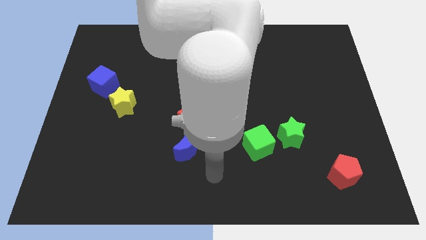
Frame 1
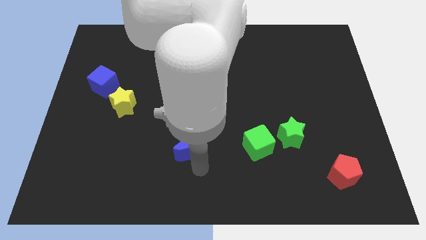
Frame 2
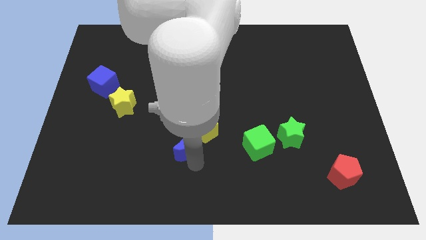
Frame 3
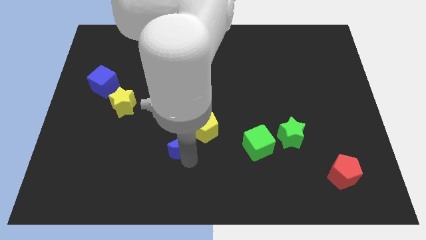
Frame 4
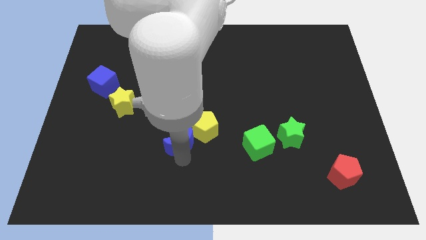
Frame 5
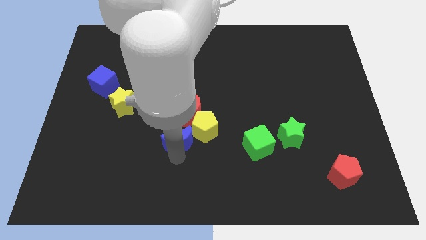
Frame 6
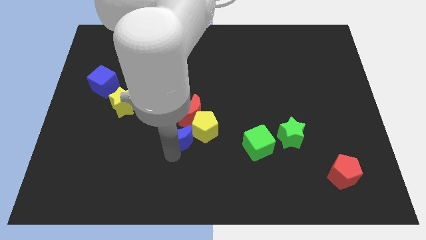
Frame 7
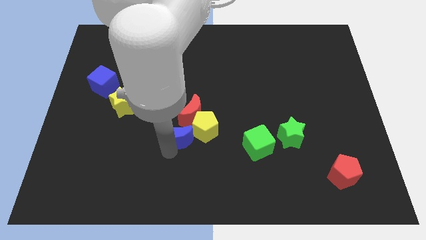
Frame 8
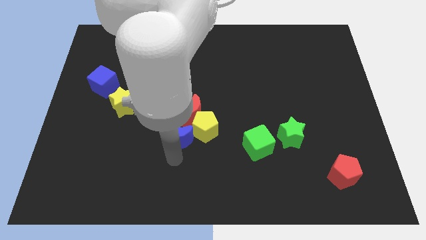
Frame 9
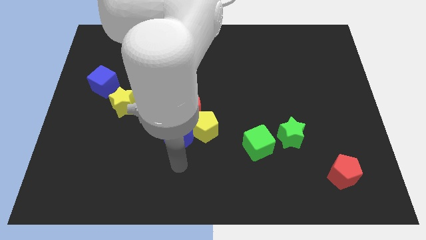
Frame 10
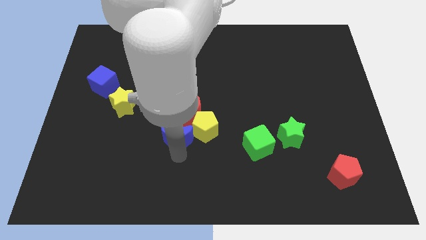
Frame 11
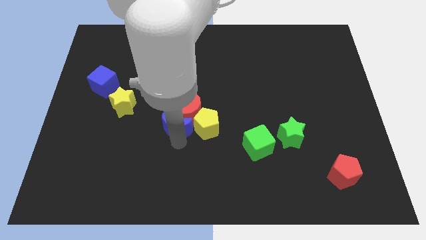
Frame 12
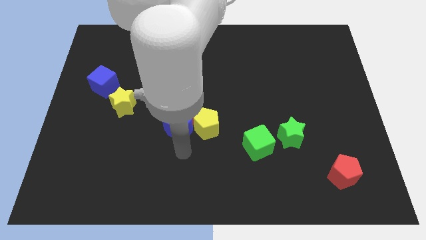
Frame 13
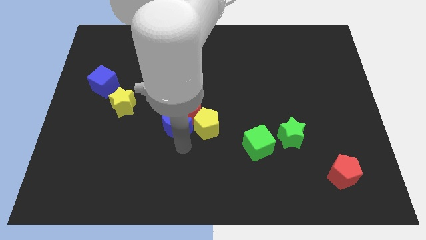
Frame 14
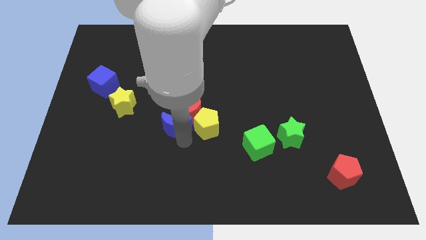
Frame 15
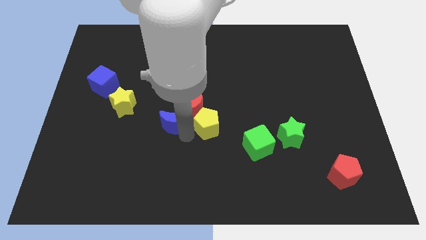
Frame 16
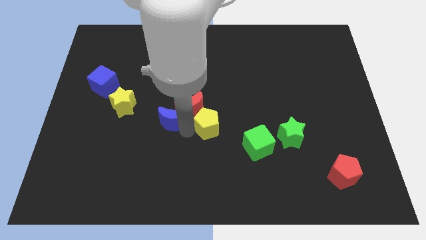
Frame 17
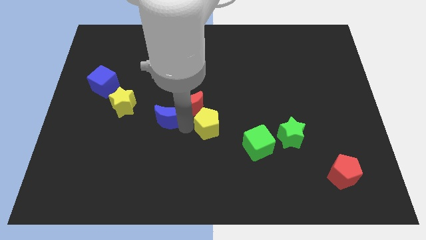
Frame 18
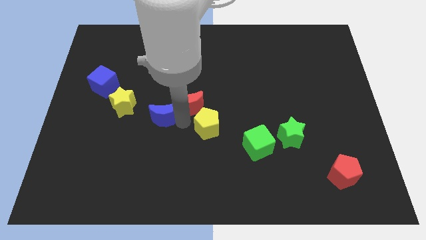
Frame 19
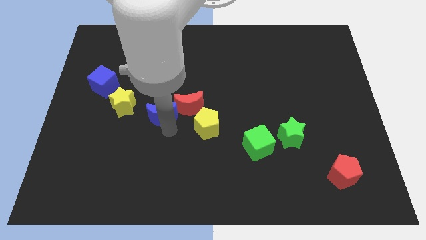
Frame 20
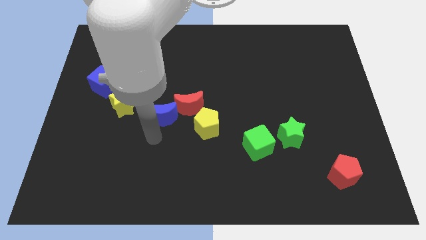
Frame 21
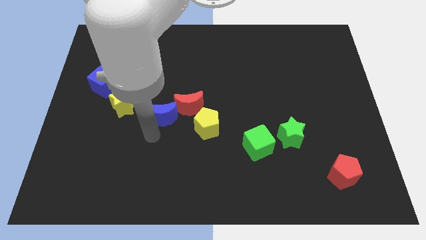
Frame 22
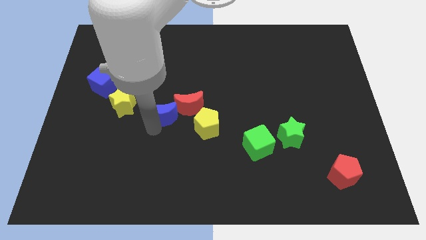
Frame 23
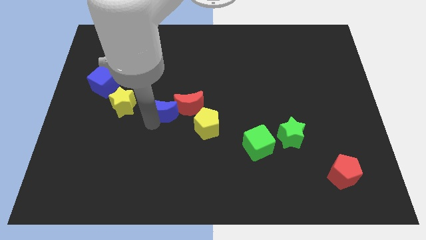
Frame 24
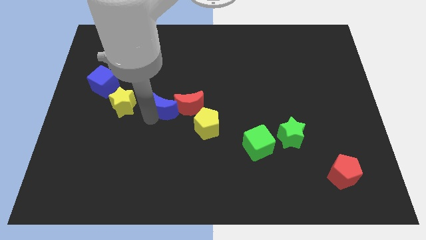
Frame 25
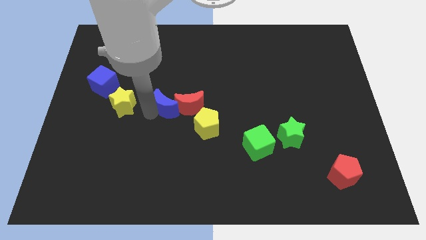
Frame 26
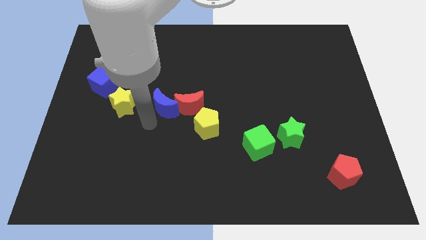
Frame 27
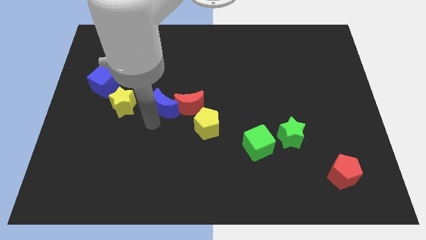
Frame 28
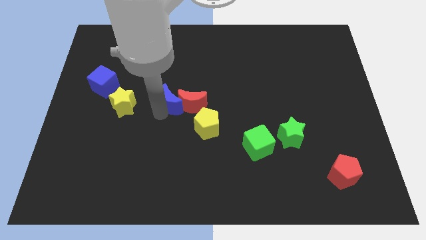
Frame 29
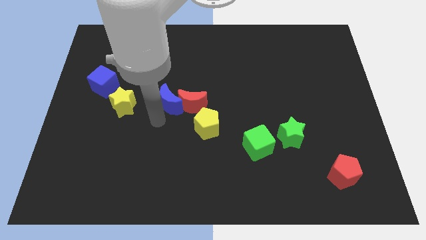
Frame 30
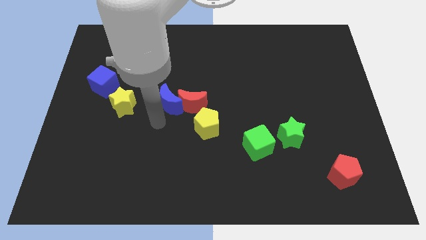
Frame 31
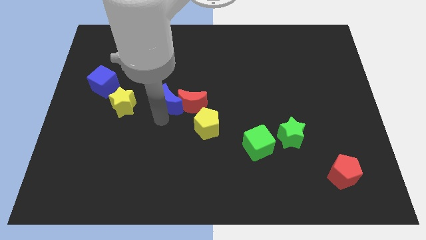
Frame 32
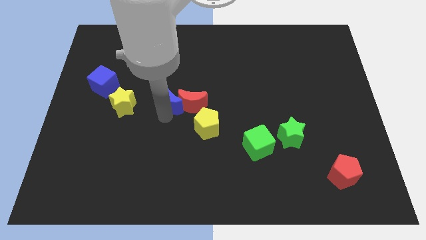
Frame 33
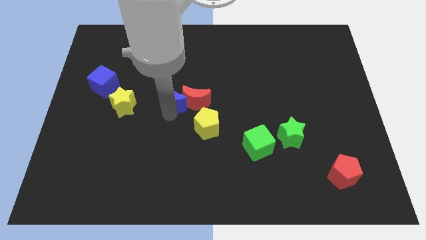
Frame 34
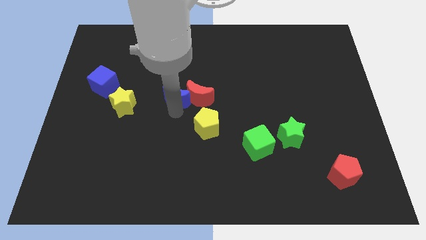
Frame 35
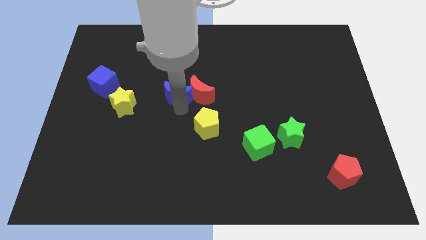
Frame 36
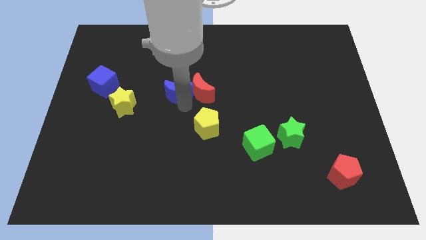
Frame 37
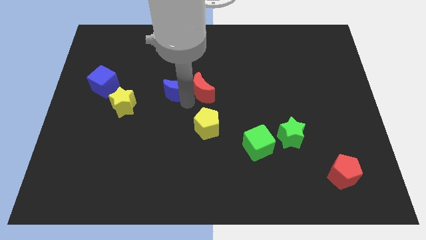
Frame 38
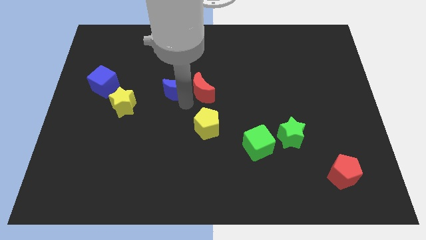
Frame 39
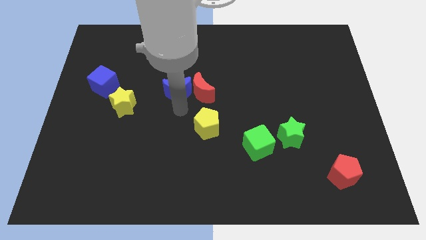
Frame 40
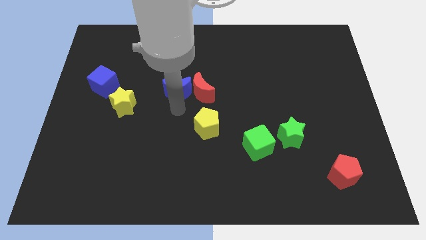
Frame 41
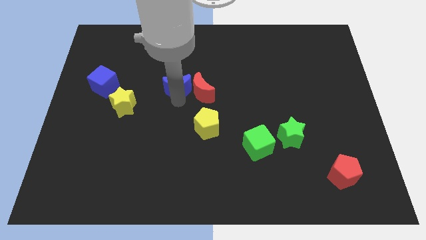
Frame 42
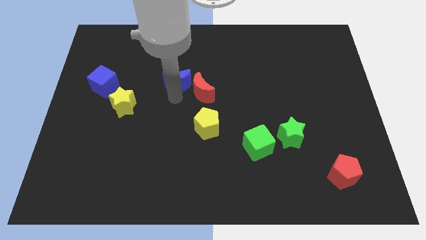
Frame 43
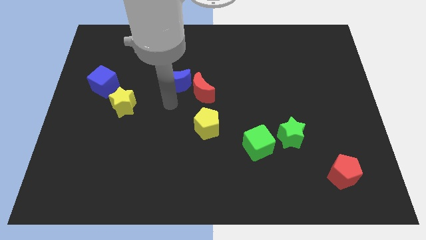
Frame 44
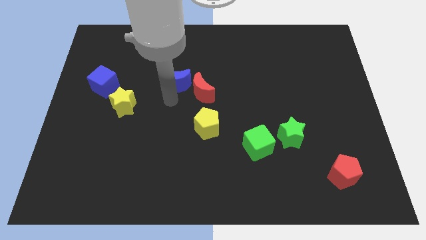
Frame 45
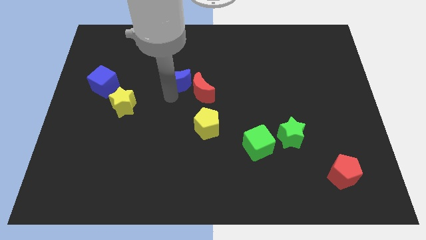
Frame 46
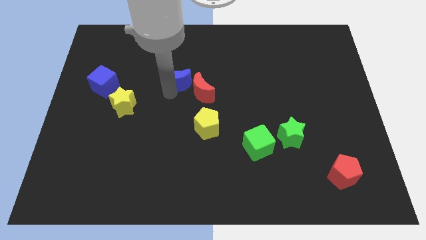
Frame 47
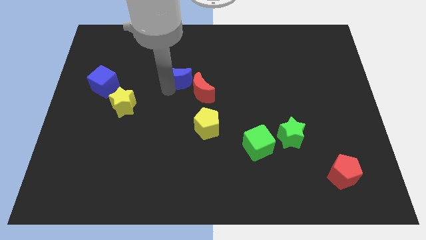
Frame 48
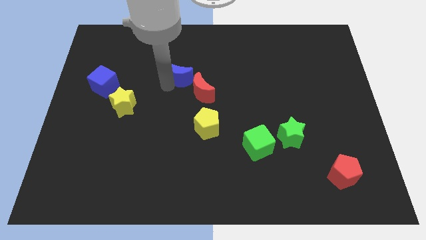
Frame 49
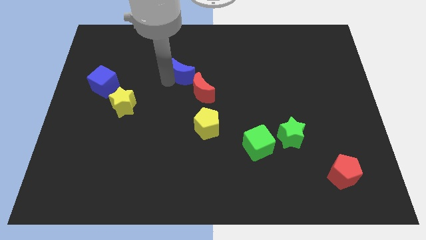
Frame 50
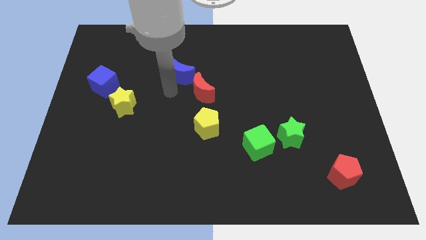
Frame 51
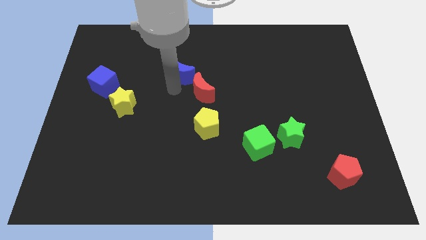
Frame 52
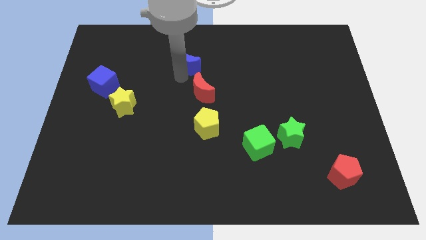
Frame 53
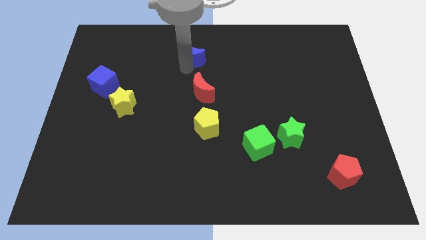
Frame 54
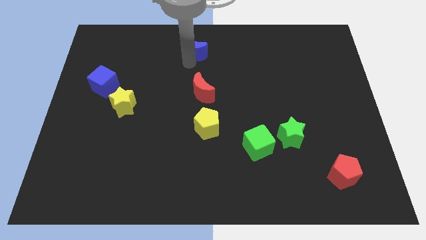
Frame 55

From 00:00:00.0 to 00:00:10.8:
put the blue moon to the top
